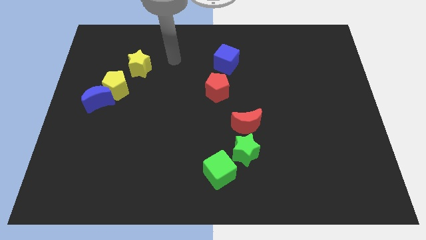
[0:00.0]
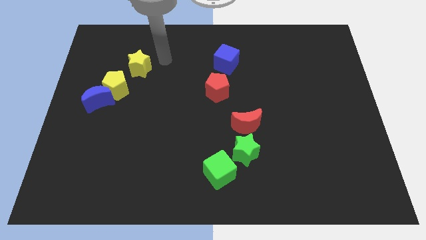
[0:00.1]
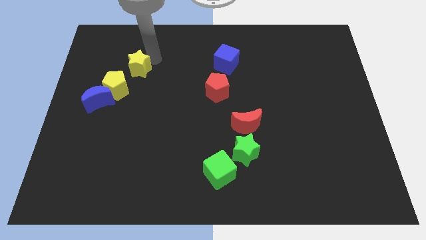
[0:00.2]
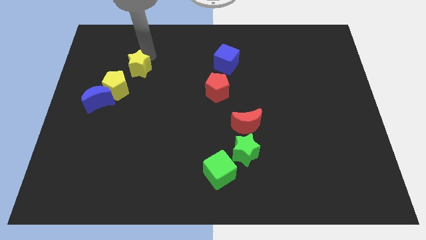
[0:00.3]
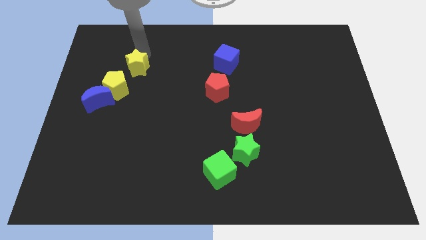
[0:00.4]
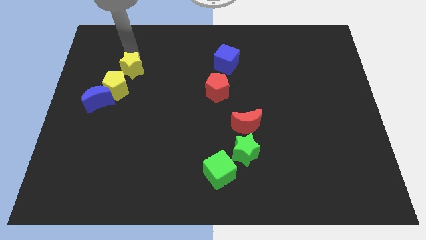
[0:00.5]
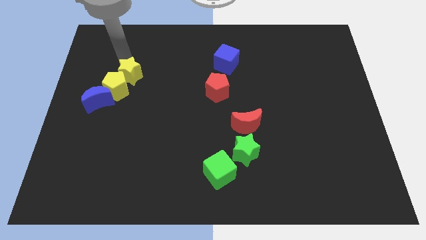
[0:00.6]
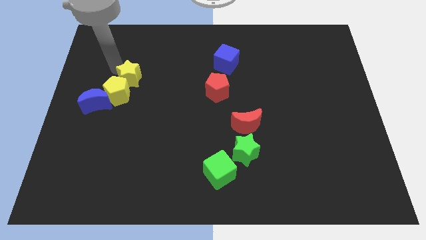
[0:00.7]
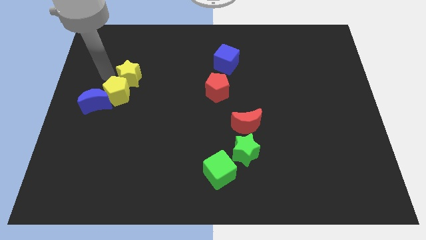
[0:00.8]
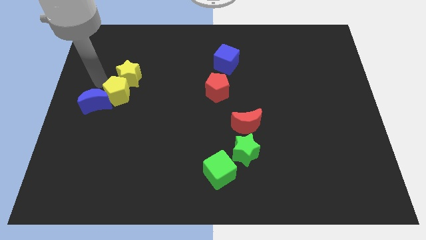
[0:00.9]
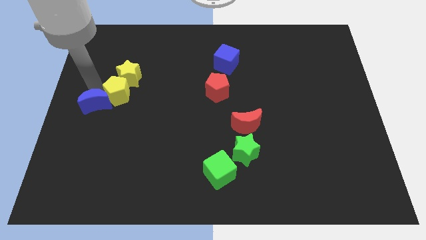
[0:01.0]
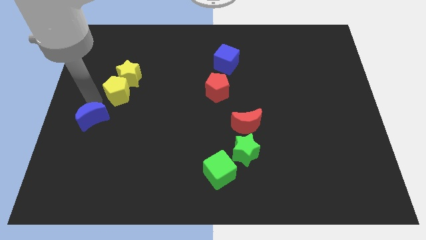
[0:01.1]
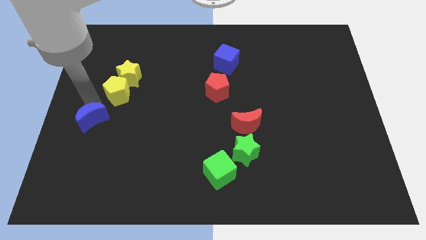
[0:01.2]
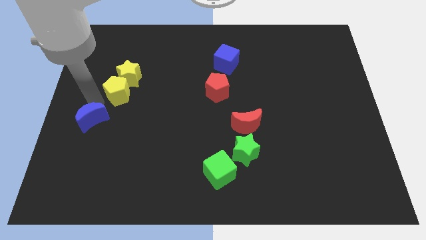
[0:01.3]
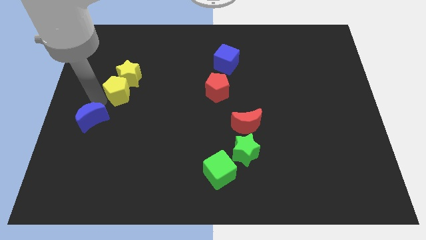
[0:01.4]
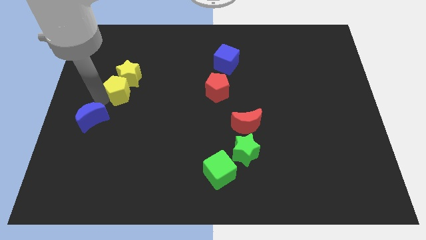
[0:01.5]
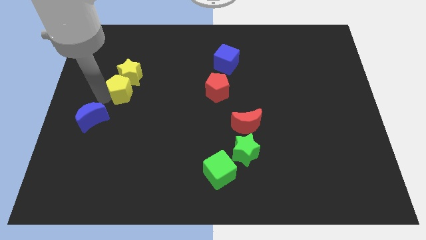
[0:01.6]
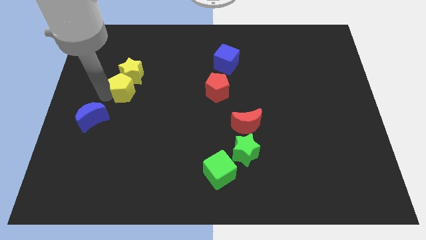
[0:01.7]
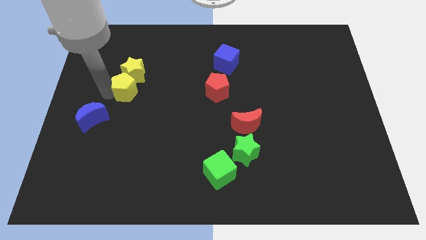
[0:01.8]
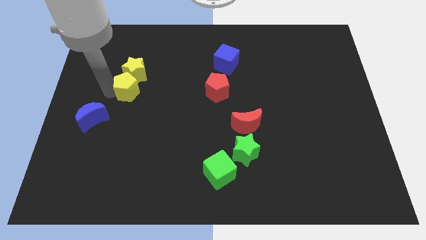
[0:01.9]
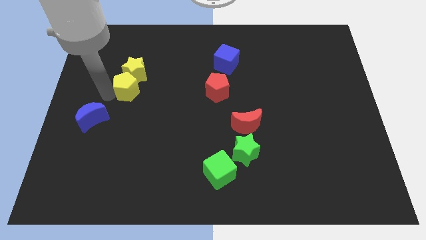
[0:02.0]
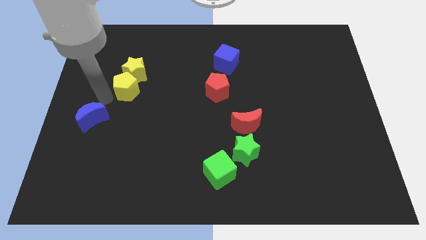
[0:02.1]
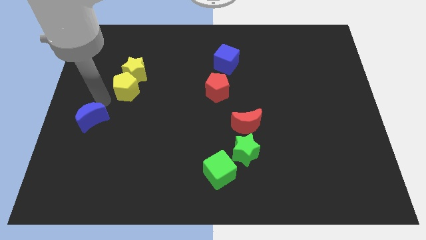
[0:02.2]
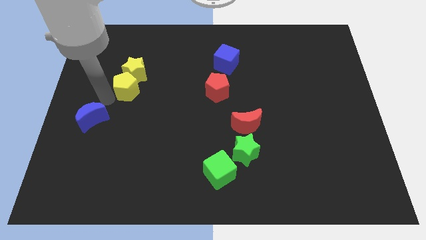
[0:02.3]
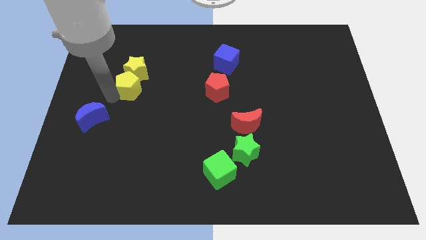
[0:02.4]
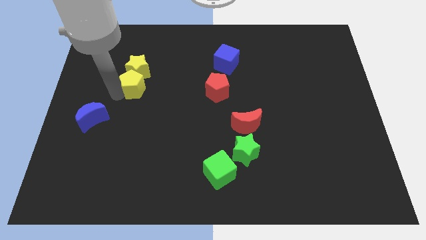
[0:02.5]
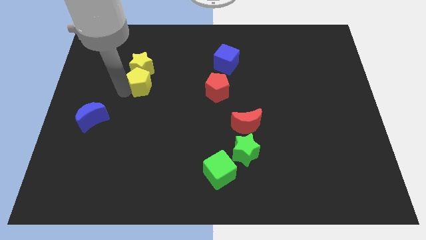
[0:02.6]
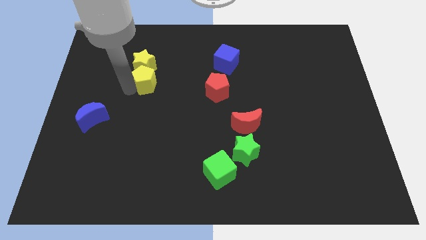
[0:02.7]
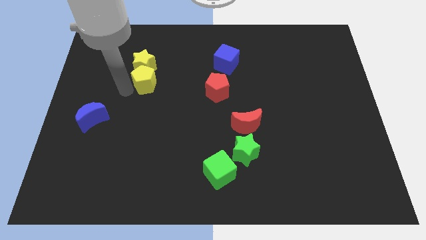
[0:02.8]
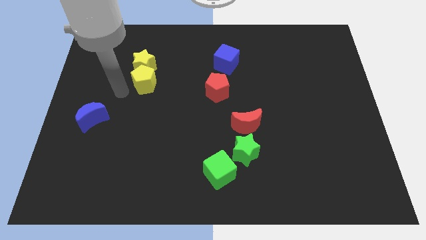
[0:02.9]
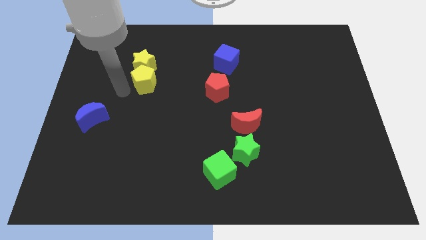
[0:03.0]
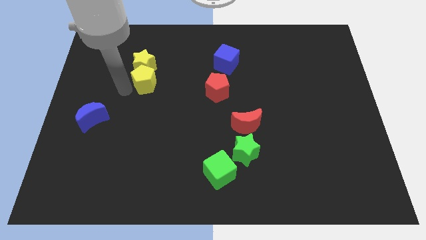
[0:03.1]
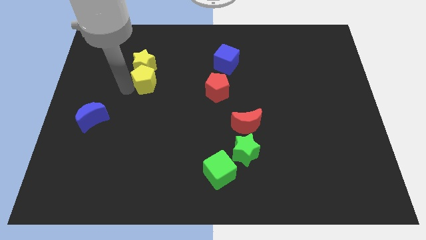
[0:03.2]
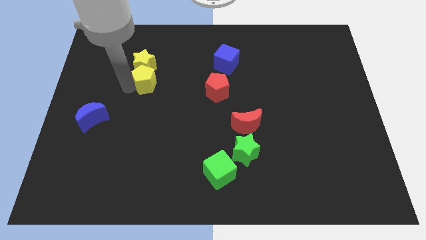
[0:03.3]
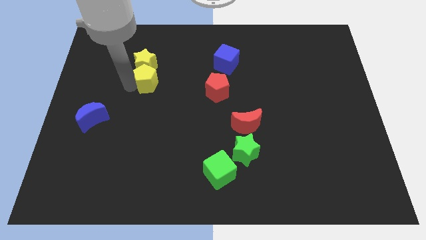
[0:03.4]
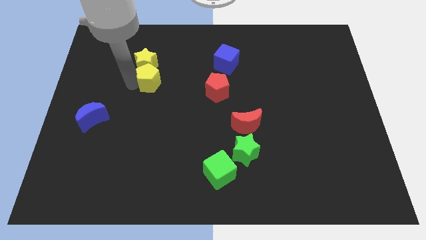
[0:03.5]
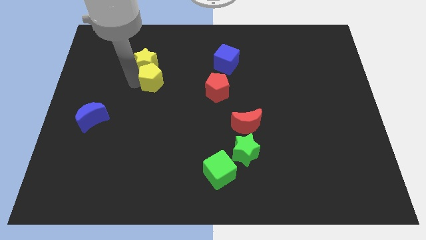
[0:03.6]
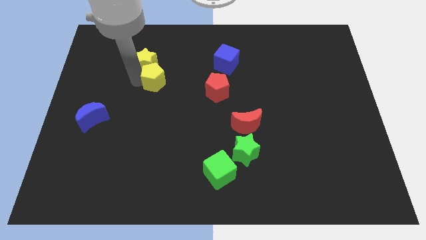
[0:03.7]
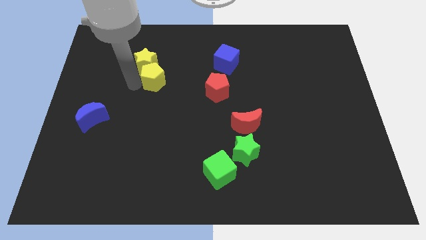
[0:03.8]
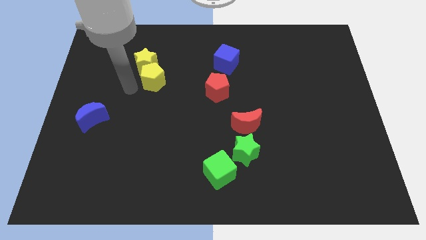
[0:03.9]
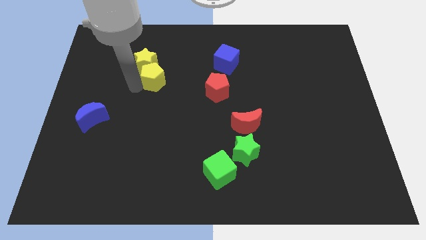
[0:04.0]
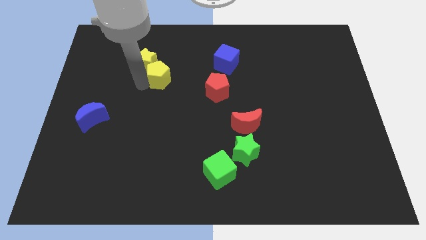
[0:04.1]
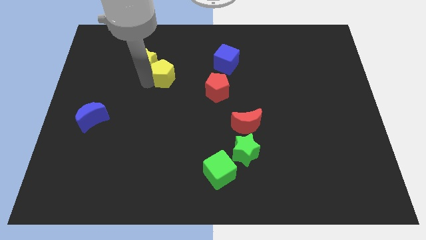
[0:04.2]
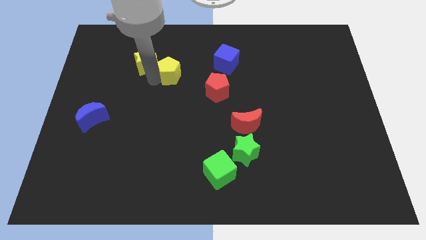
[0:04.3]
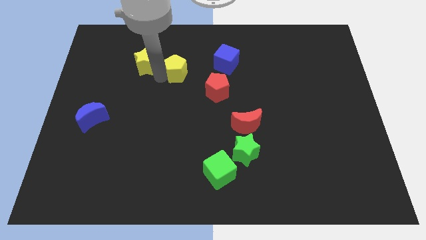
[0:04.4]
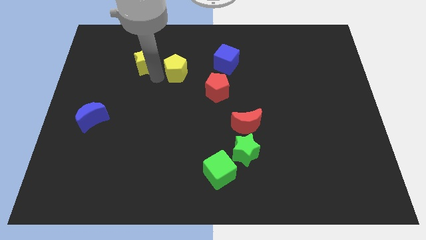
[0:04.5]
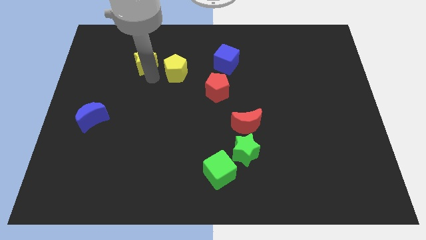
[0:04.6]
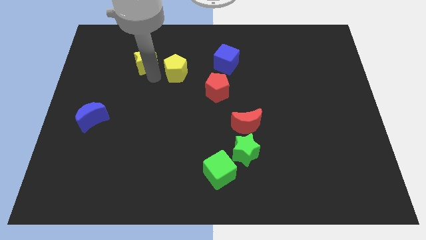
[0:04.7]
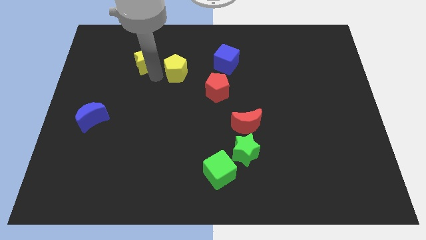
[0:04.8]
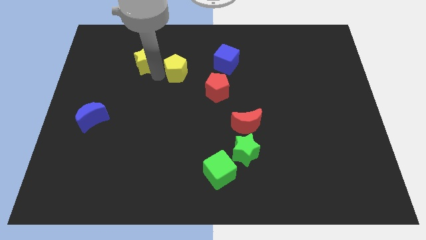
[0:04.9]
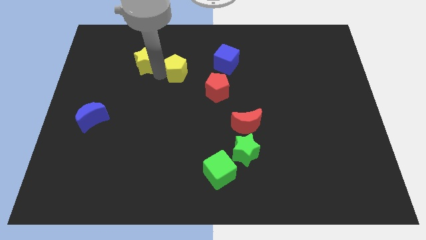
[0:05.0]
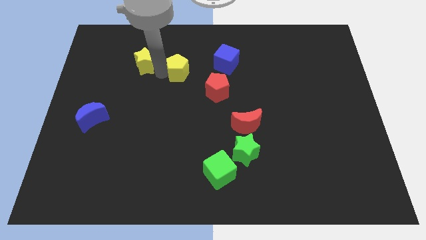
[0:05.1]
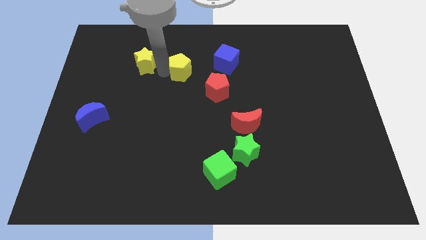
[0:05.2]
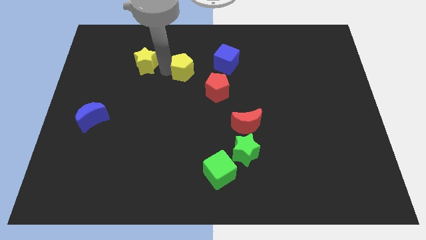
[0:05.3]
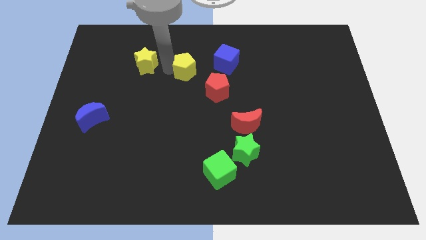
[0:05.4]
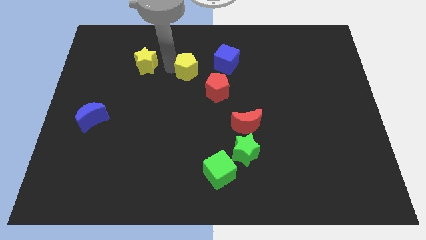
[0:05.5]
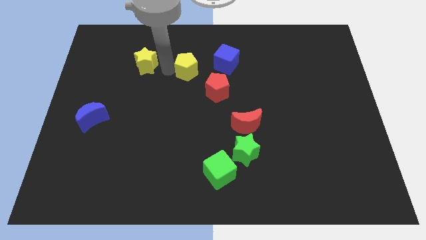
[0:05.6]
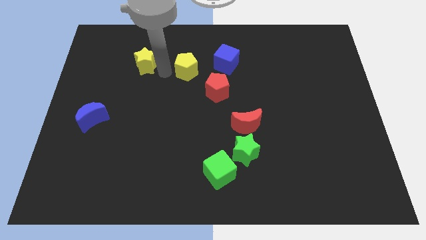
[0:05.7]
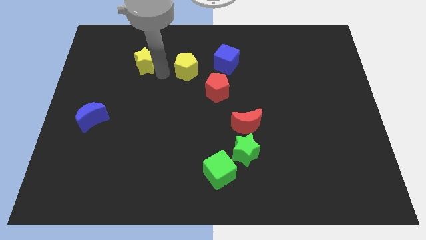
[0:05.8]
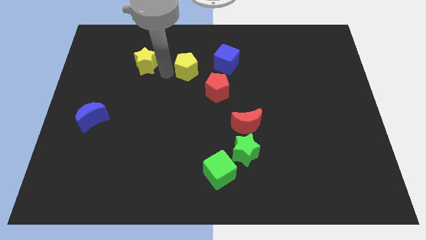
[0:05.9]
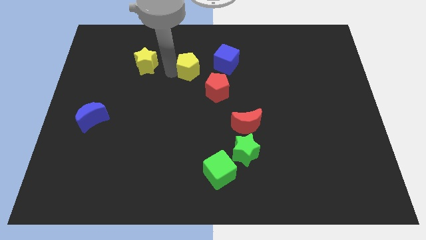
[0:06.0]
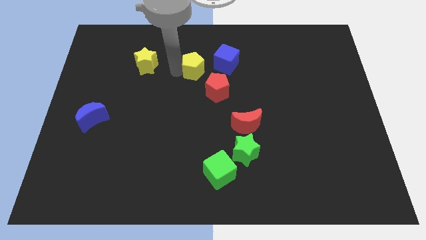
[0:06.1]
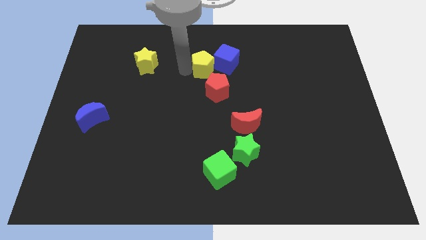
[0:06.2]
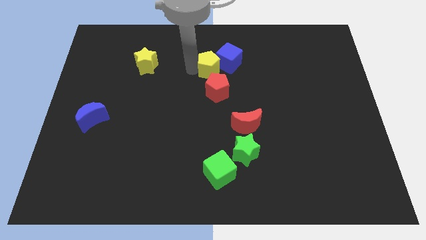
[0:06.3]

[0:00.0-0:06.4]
slide the yellow pentagon towards the blue cube

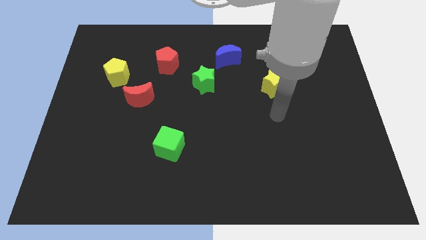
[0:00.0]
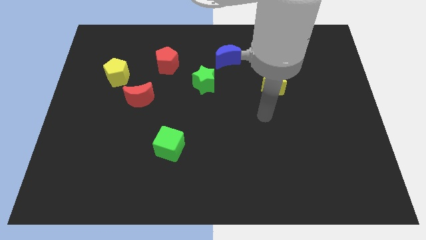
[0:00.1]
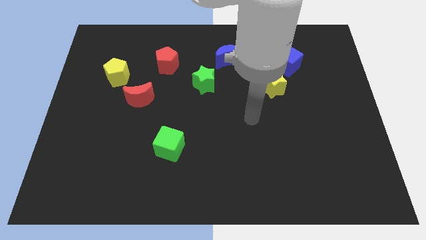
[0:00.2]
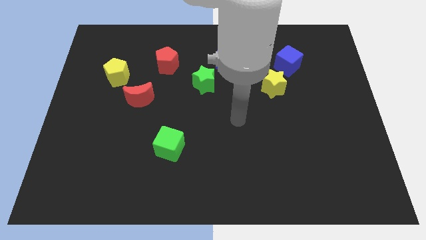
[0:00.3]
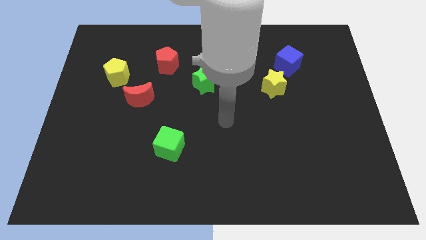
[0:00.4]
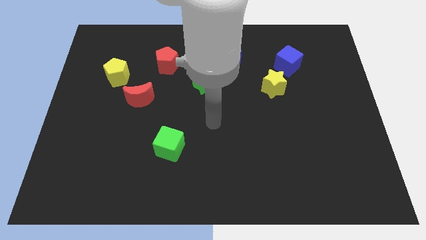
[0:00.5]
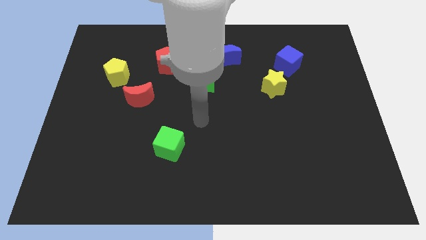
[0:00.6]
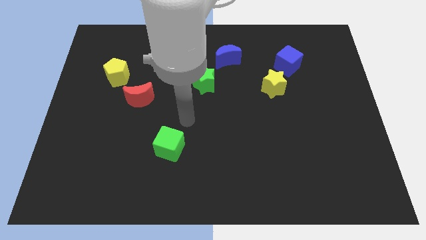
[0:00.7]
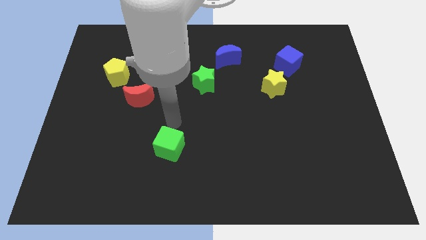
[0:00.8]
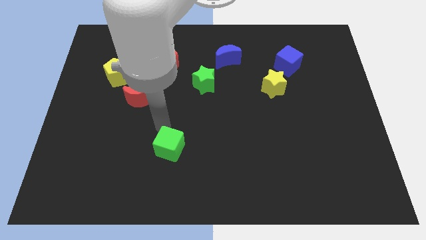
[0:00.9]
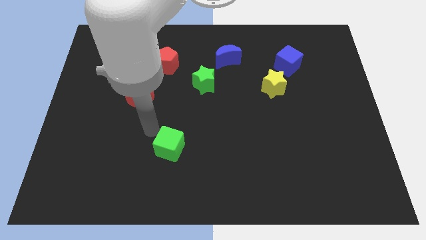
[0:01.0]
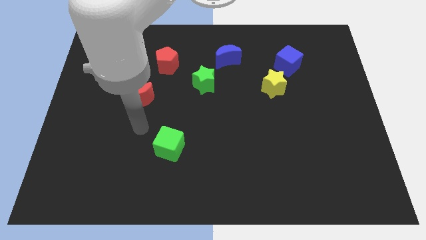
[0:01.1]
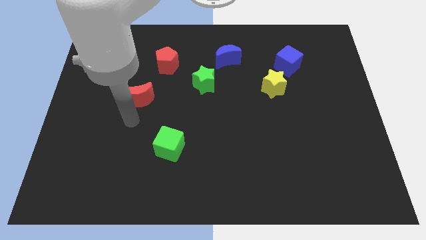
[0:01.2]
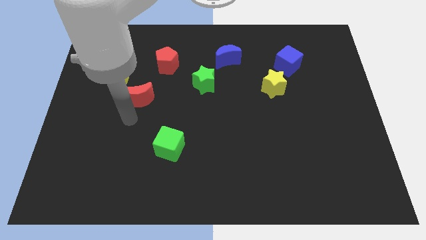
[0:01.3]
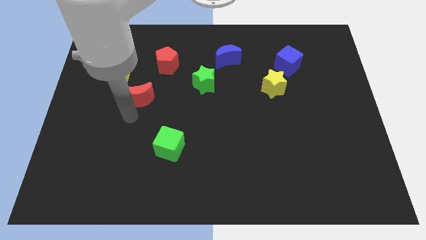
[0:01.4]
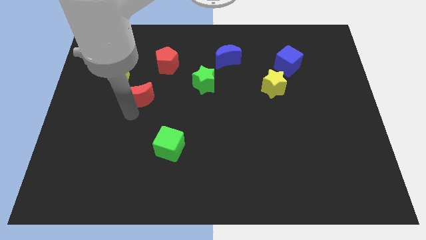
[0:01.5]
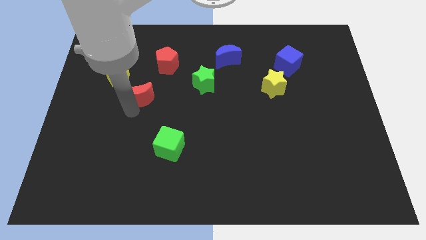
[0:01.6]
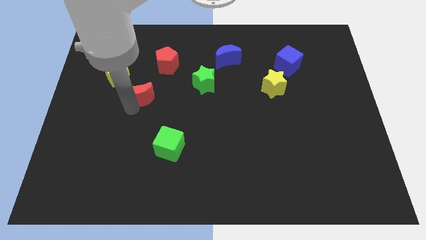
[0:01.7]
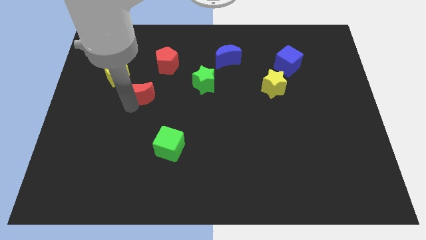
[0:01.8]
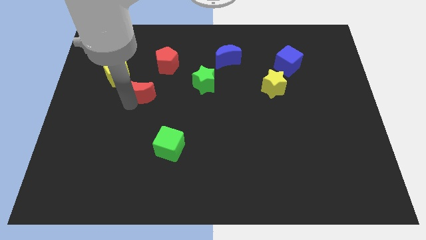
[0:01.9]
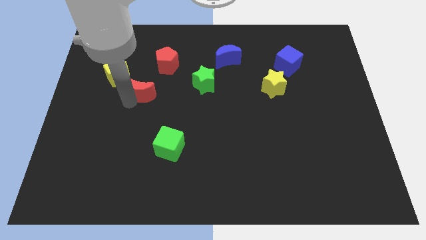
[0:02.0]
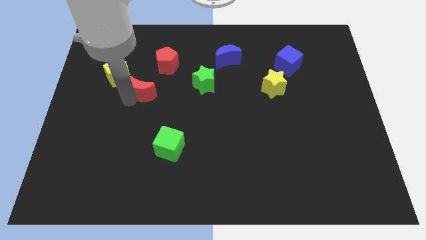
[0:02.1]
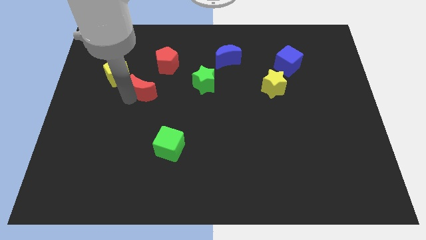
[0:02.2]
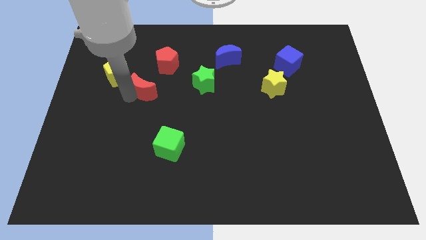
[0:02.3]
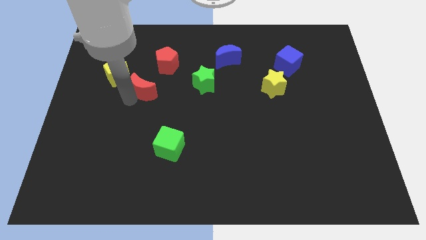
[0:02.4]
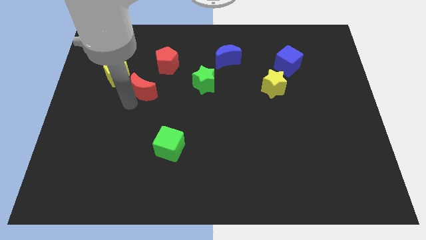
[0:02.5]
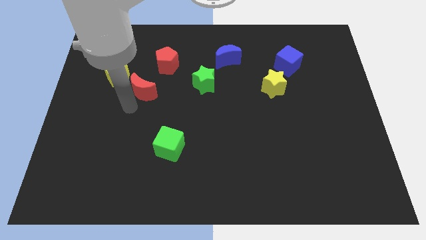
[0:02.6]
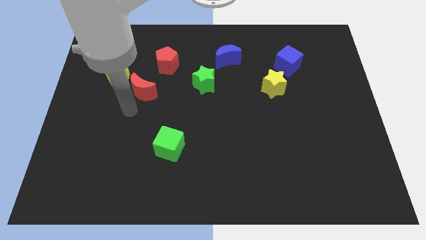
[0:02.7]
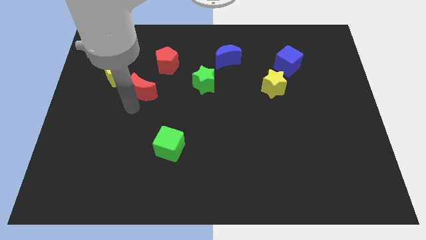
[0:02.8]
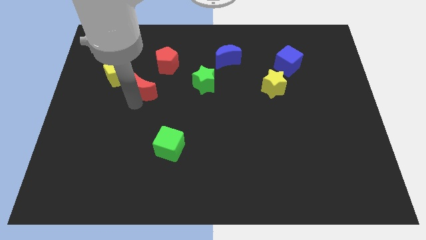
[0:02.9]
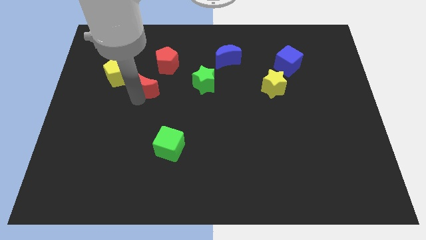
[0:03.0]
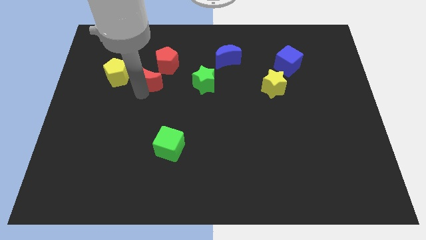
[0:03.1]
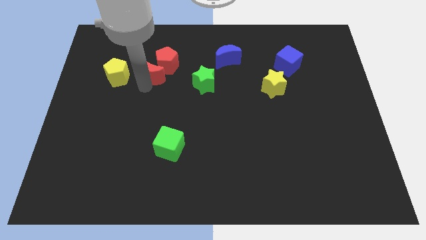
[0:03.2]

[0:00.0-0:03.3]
slide the red moon next to the red pentagon
